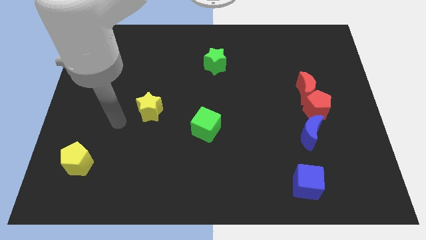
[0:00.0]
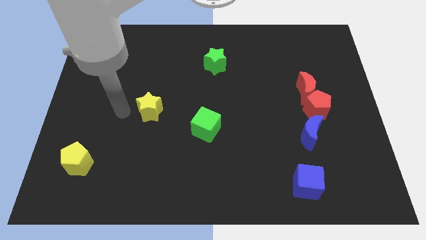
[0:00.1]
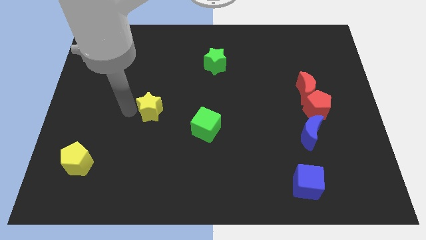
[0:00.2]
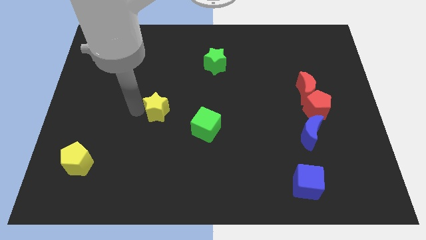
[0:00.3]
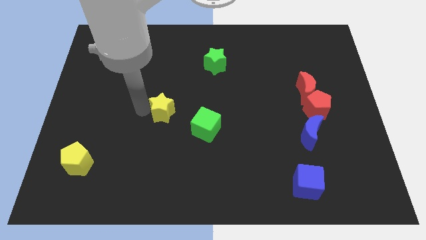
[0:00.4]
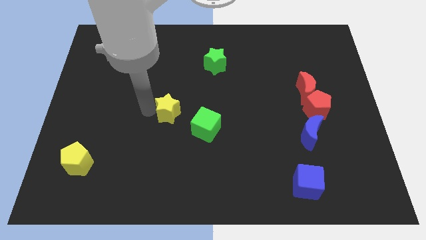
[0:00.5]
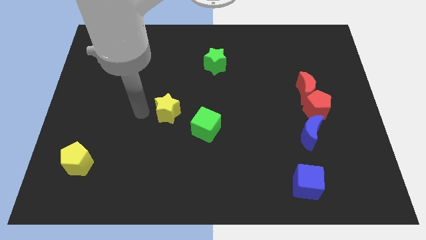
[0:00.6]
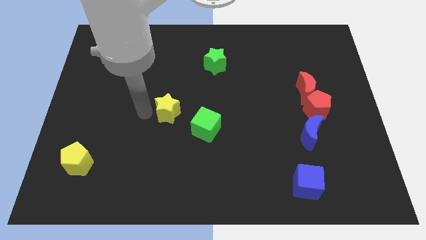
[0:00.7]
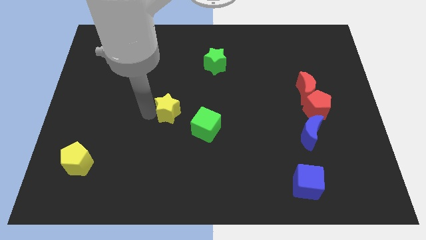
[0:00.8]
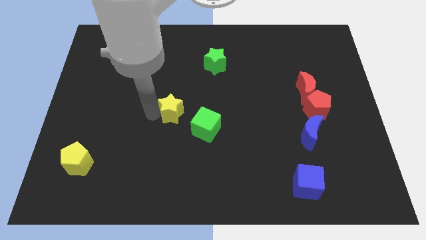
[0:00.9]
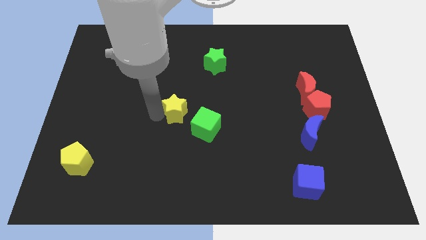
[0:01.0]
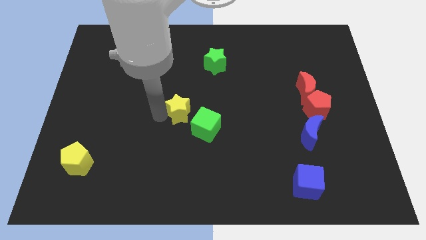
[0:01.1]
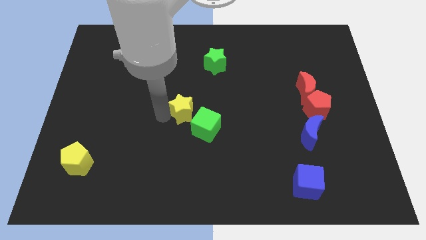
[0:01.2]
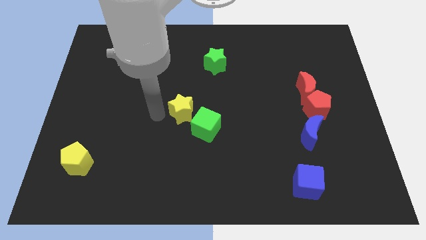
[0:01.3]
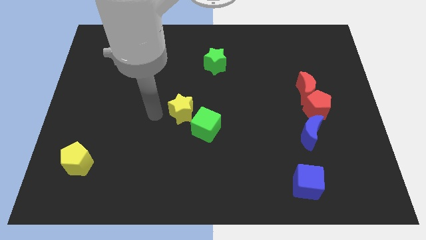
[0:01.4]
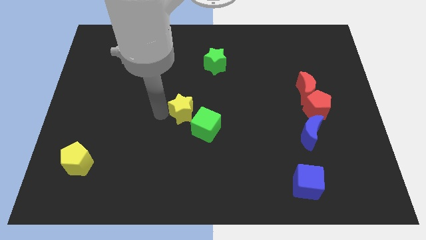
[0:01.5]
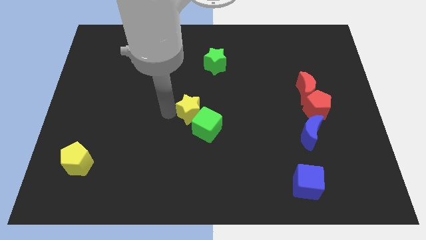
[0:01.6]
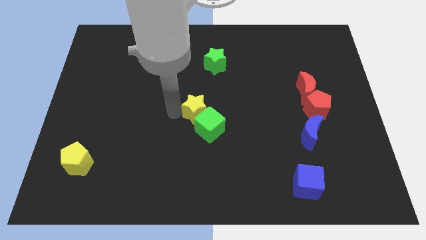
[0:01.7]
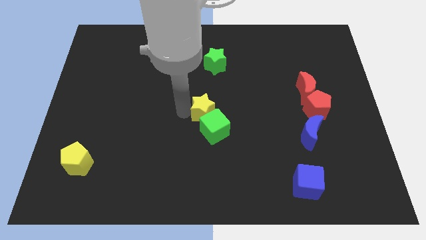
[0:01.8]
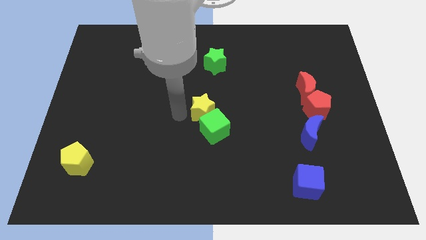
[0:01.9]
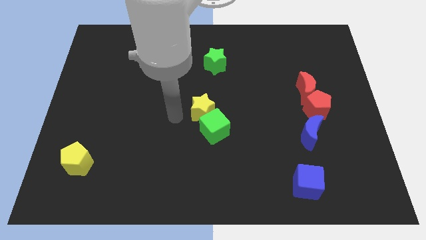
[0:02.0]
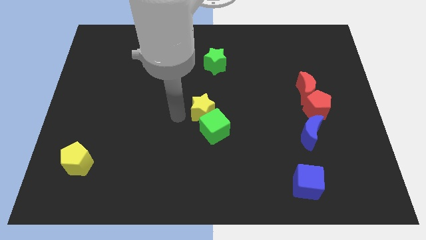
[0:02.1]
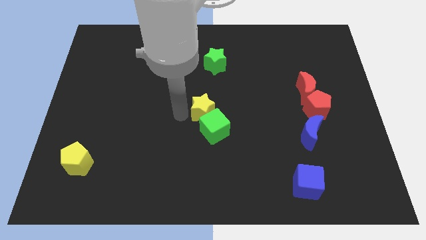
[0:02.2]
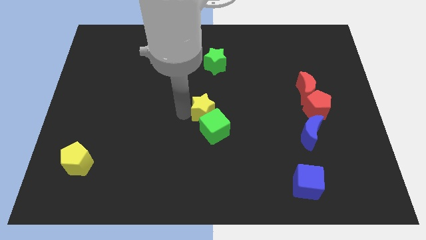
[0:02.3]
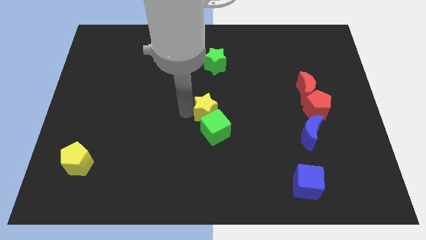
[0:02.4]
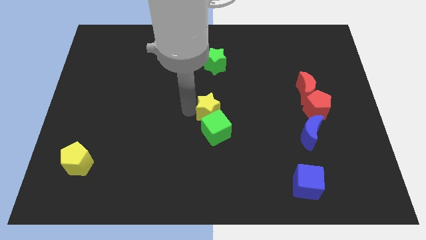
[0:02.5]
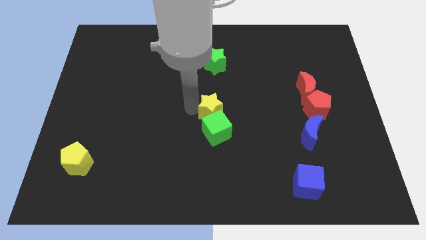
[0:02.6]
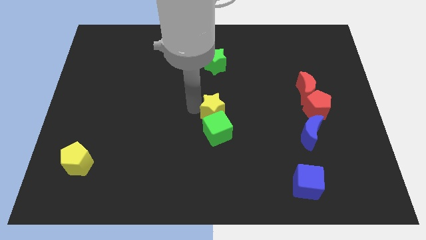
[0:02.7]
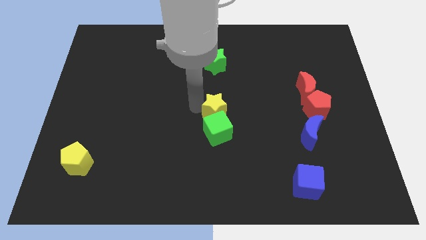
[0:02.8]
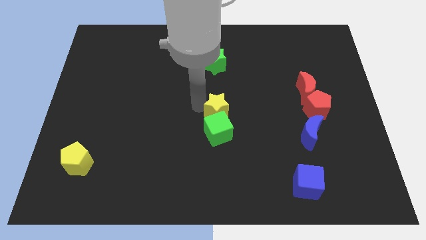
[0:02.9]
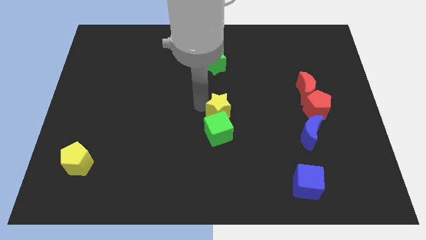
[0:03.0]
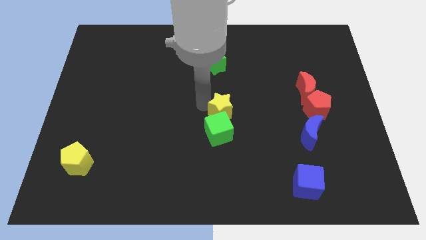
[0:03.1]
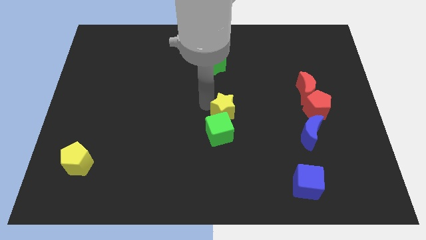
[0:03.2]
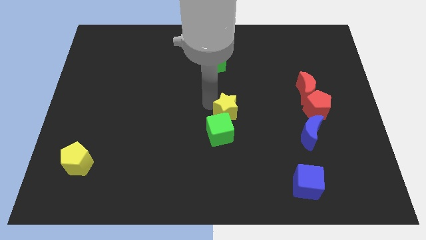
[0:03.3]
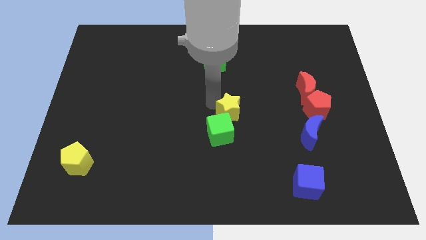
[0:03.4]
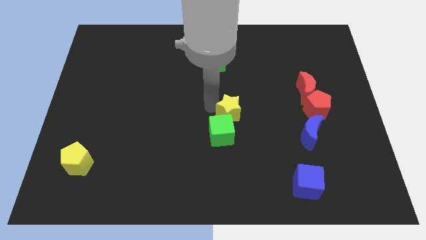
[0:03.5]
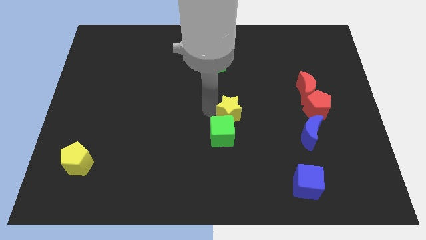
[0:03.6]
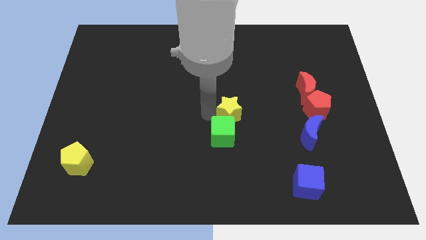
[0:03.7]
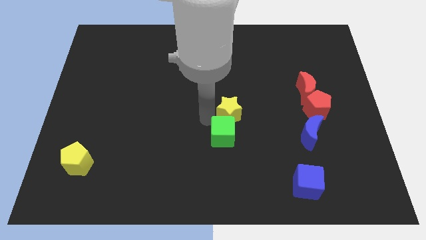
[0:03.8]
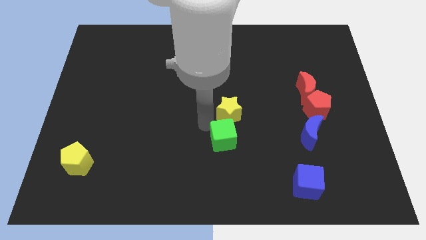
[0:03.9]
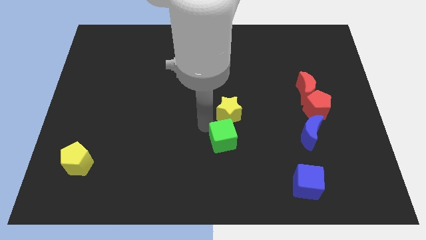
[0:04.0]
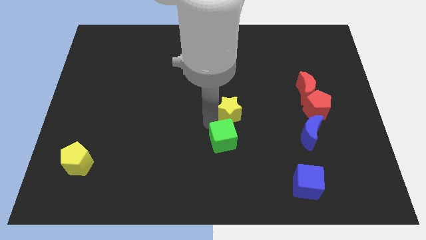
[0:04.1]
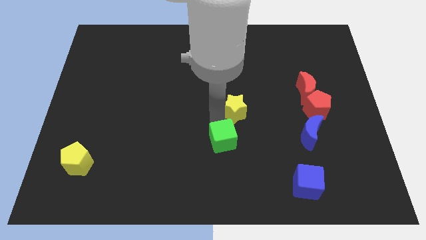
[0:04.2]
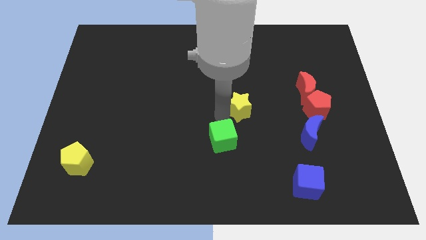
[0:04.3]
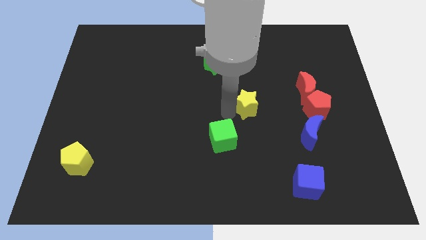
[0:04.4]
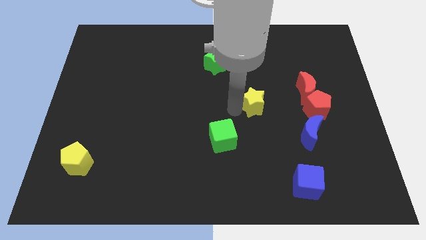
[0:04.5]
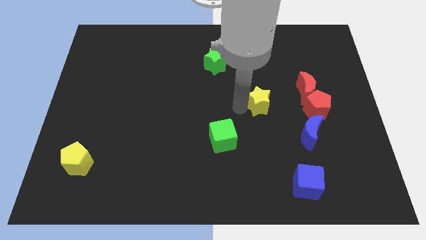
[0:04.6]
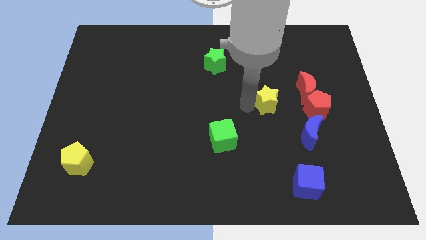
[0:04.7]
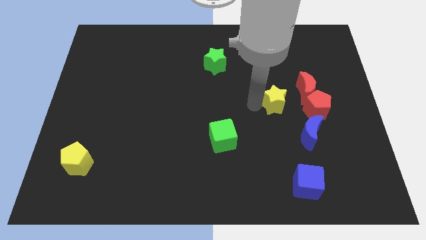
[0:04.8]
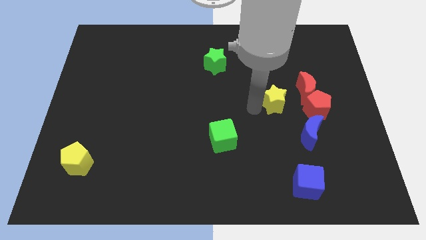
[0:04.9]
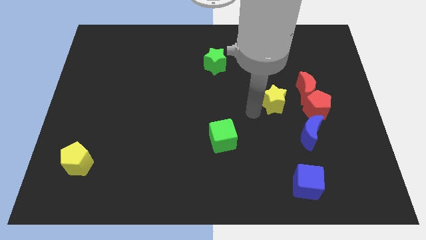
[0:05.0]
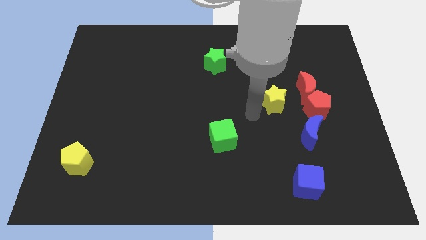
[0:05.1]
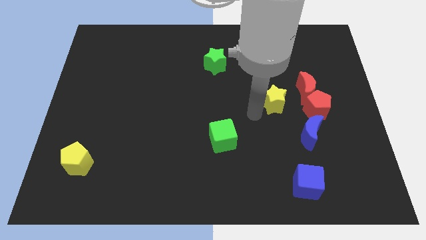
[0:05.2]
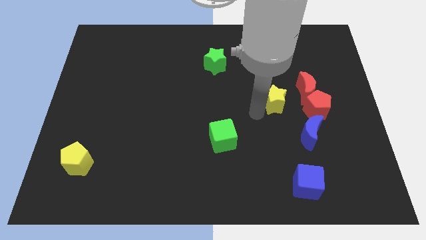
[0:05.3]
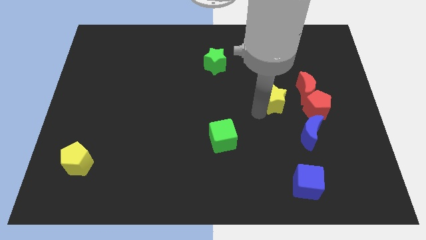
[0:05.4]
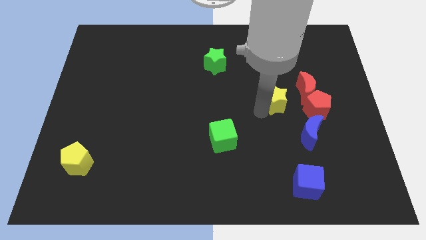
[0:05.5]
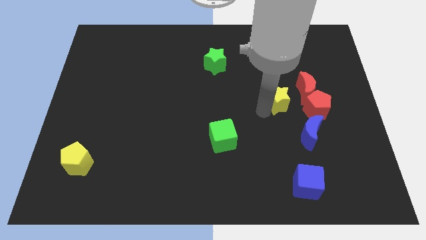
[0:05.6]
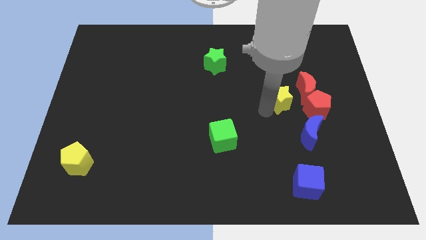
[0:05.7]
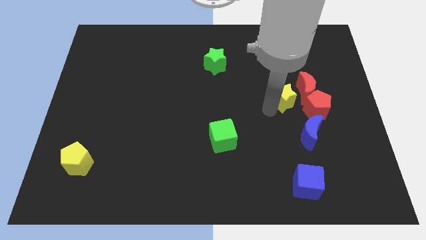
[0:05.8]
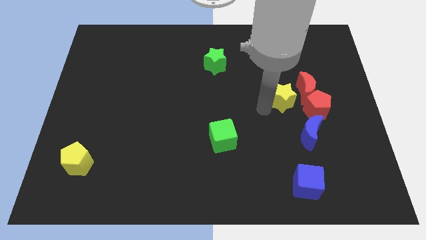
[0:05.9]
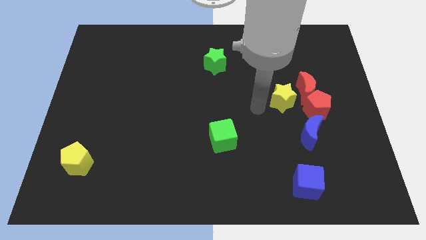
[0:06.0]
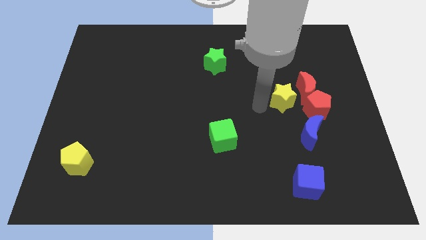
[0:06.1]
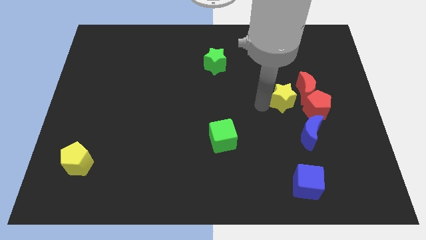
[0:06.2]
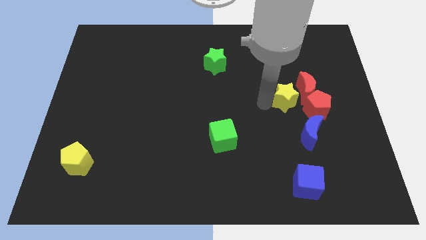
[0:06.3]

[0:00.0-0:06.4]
slide the yellow star close to the red moon

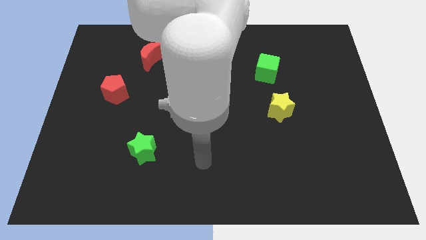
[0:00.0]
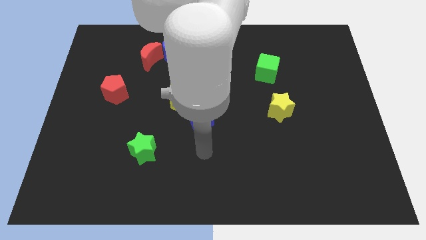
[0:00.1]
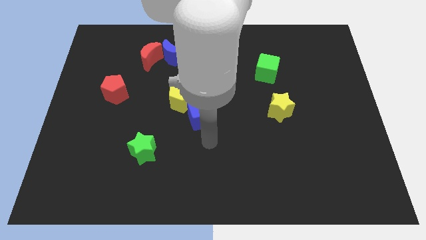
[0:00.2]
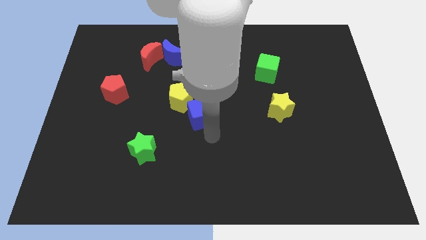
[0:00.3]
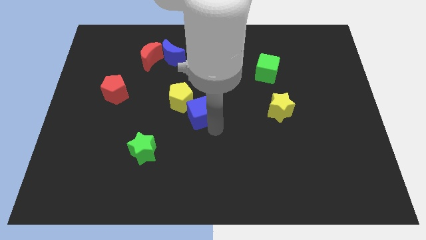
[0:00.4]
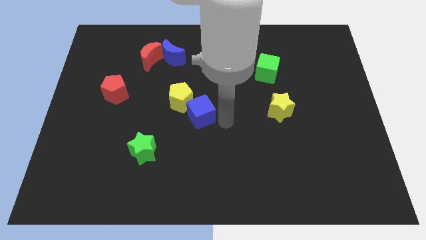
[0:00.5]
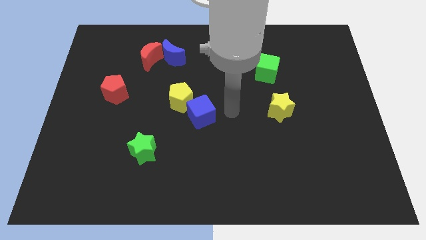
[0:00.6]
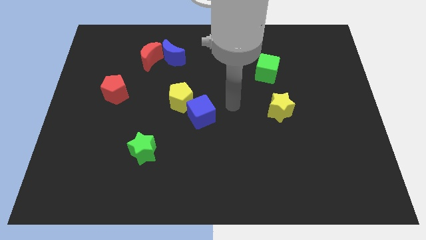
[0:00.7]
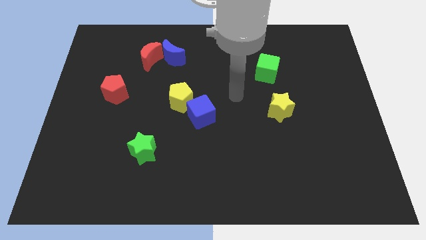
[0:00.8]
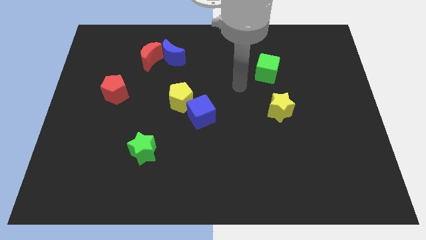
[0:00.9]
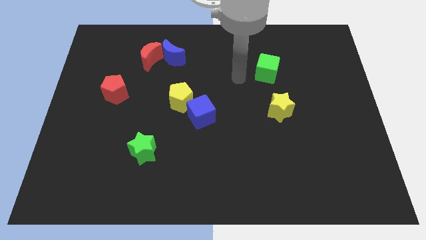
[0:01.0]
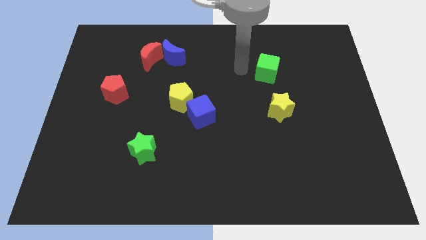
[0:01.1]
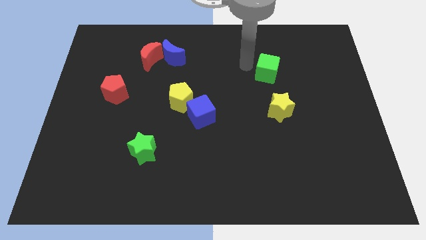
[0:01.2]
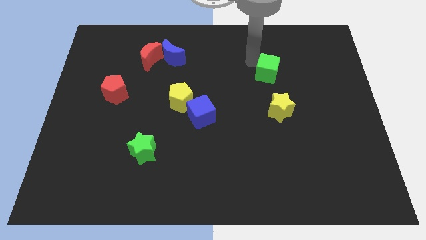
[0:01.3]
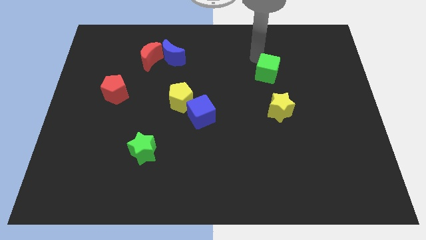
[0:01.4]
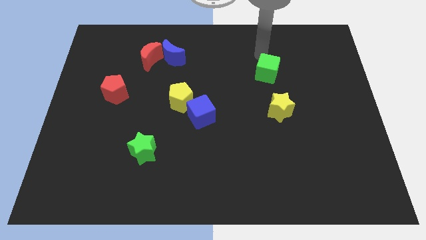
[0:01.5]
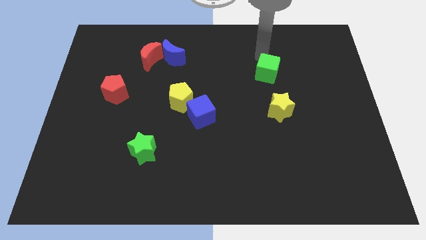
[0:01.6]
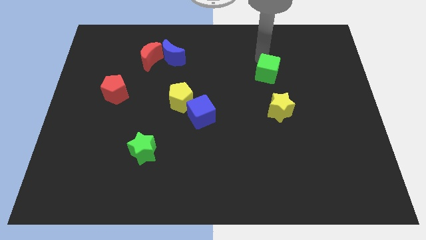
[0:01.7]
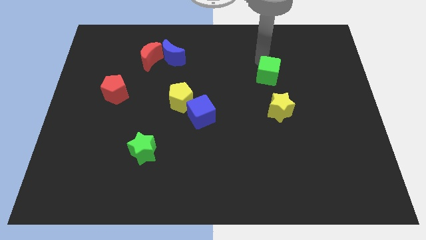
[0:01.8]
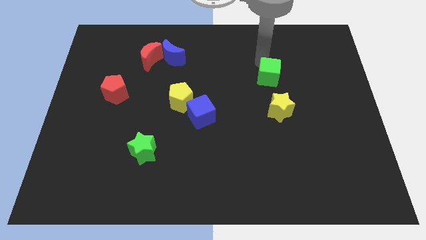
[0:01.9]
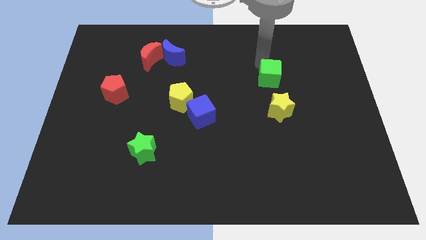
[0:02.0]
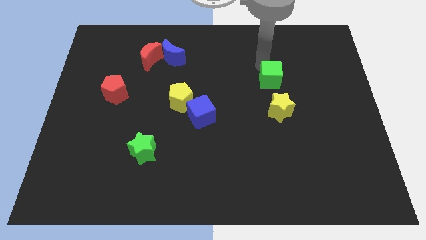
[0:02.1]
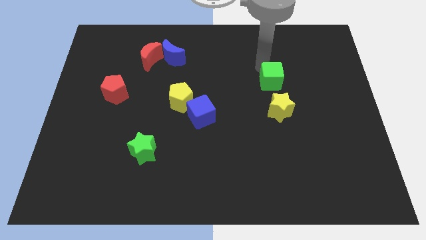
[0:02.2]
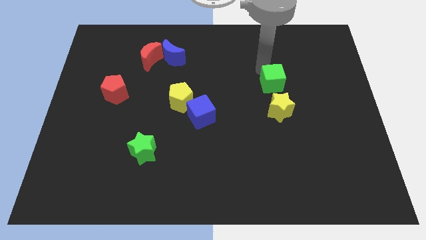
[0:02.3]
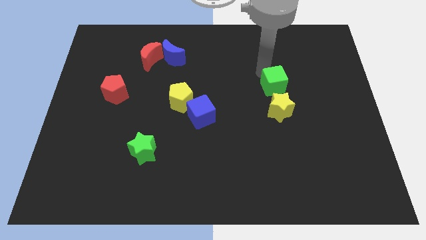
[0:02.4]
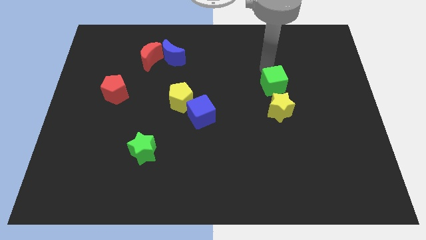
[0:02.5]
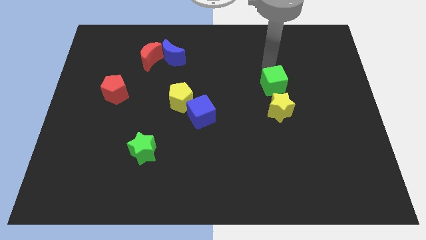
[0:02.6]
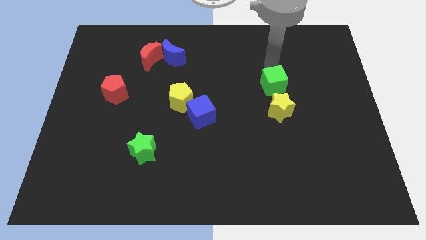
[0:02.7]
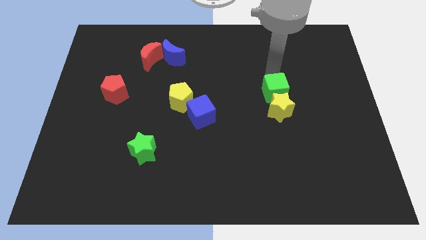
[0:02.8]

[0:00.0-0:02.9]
move the green cube next to the yellow star
